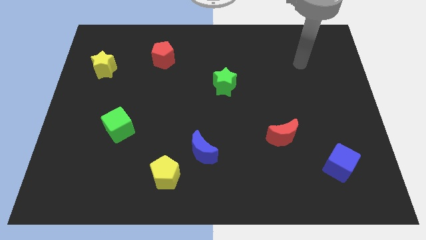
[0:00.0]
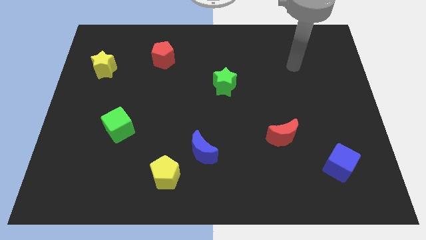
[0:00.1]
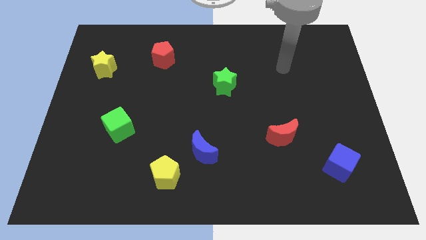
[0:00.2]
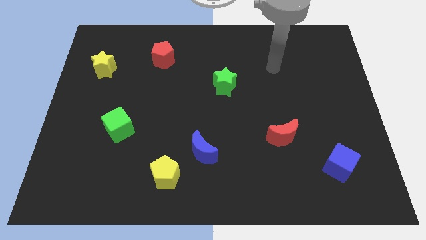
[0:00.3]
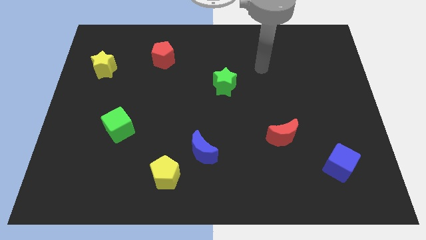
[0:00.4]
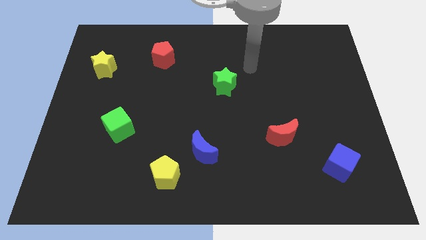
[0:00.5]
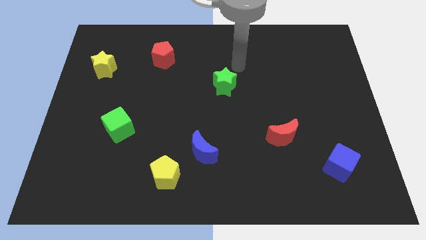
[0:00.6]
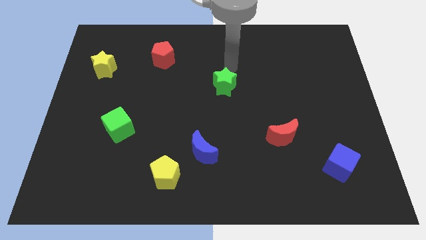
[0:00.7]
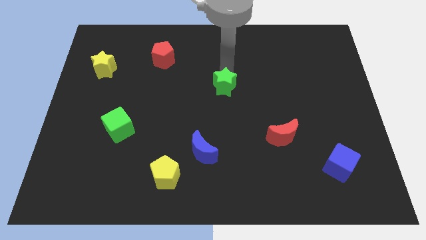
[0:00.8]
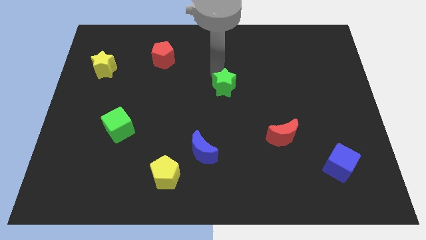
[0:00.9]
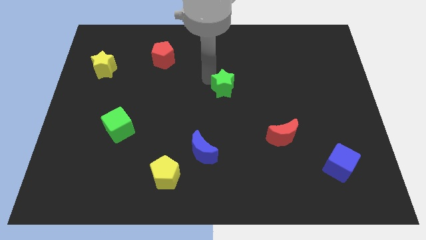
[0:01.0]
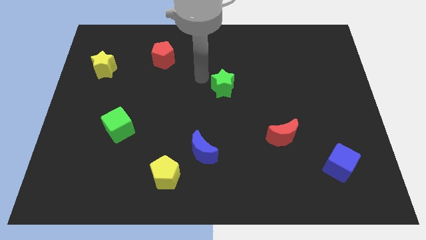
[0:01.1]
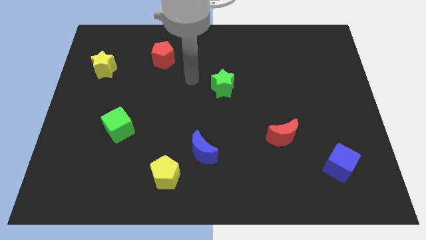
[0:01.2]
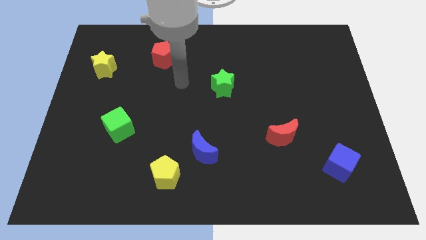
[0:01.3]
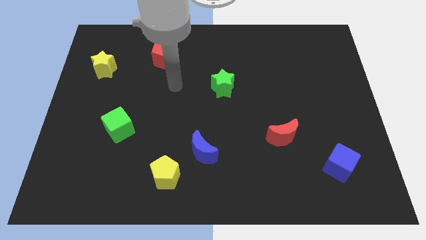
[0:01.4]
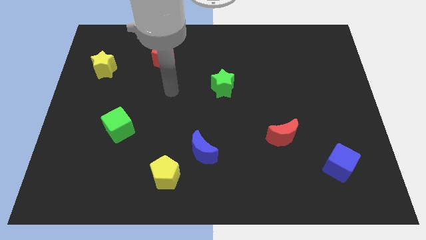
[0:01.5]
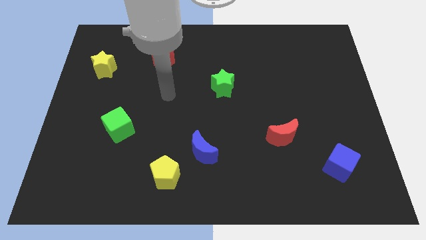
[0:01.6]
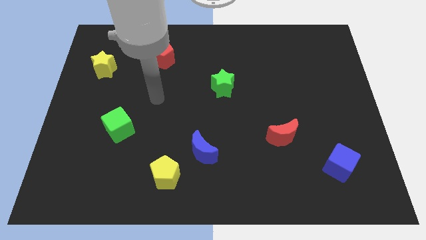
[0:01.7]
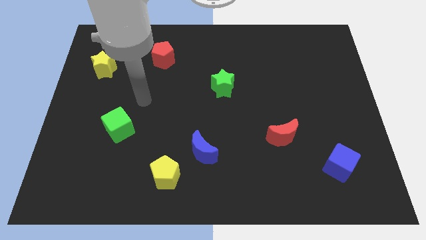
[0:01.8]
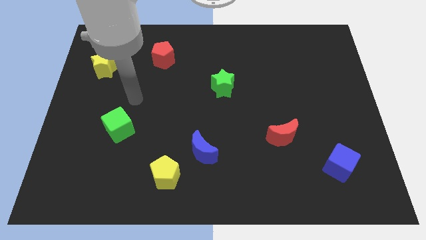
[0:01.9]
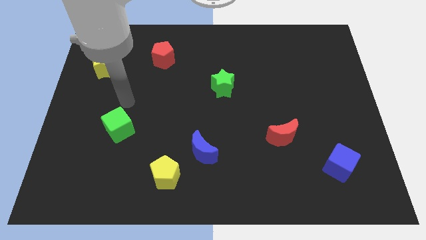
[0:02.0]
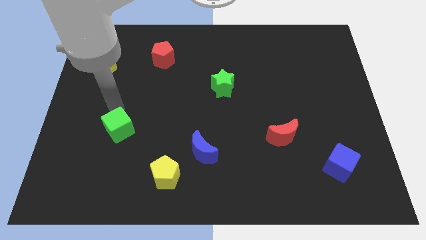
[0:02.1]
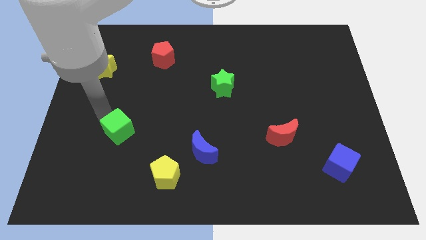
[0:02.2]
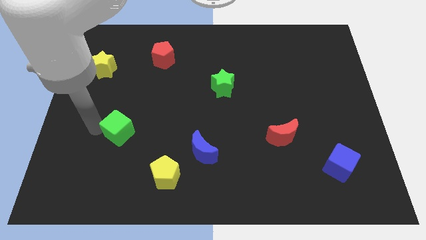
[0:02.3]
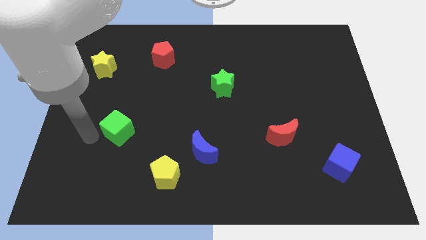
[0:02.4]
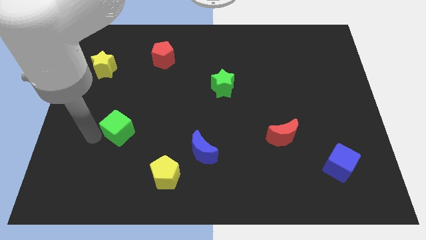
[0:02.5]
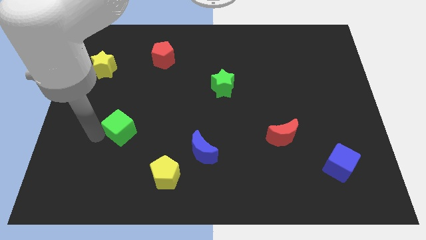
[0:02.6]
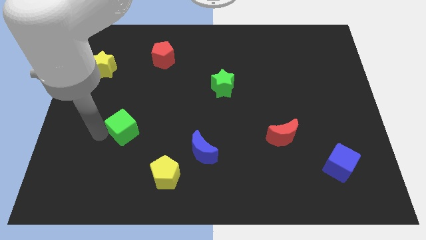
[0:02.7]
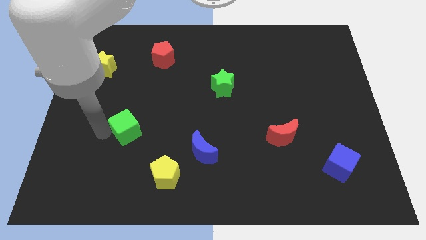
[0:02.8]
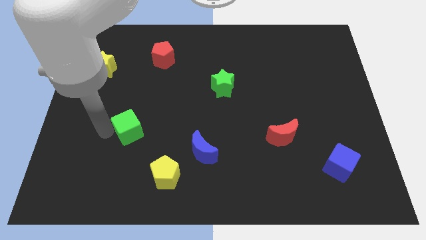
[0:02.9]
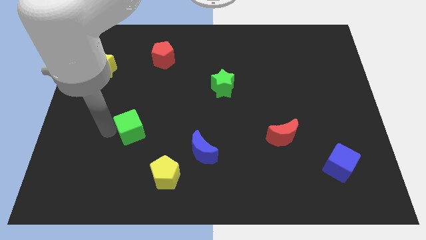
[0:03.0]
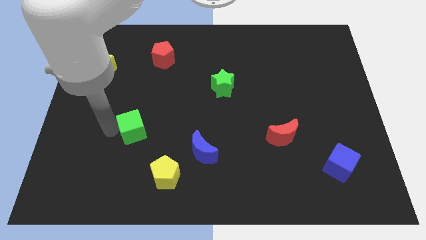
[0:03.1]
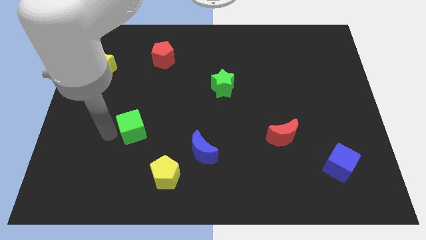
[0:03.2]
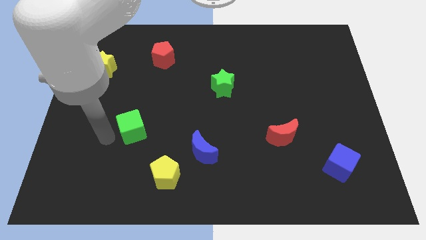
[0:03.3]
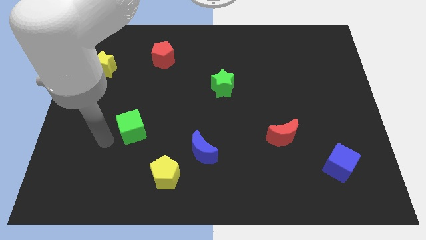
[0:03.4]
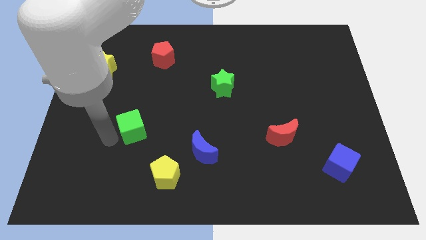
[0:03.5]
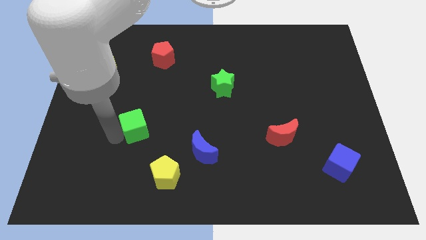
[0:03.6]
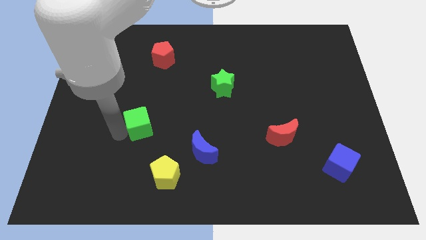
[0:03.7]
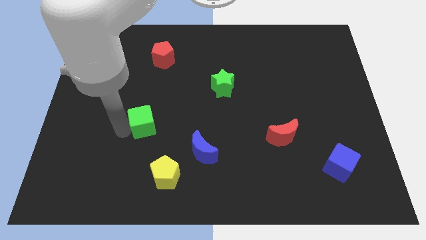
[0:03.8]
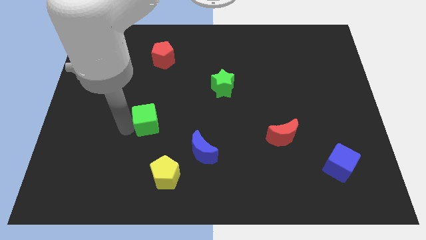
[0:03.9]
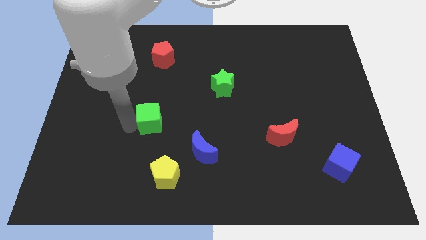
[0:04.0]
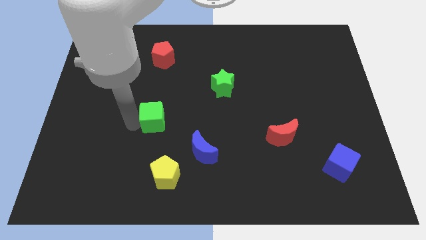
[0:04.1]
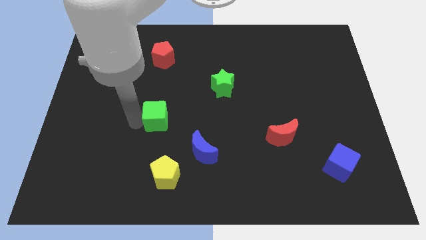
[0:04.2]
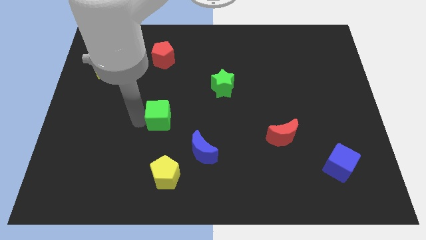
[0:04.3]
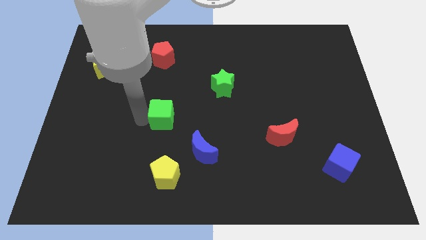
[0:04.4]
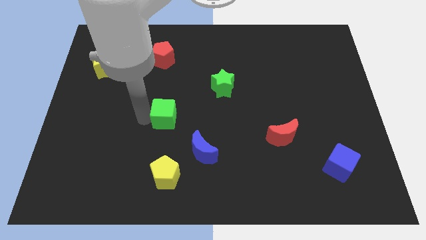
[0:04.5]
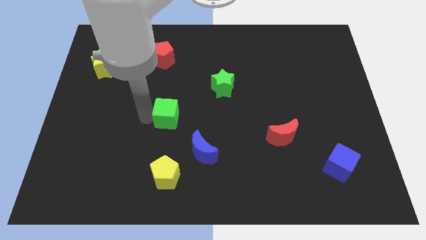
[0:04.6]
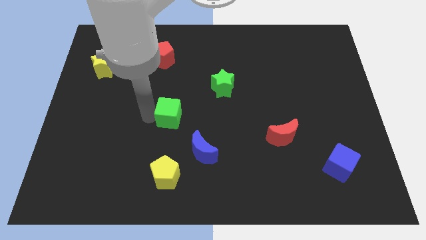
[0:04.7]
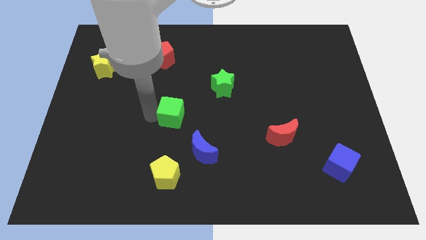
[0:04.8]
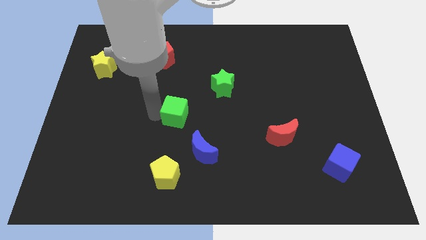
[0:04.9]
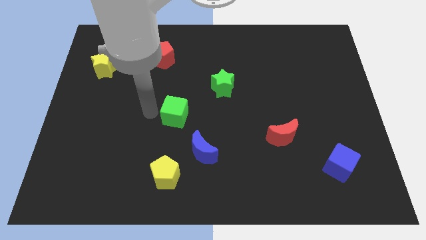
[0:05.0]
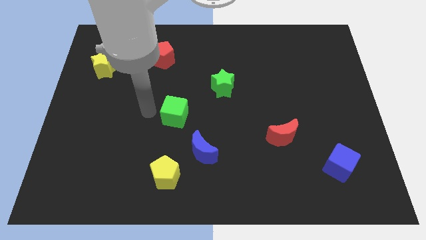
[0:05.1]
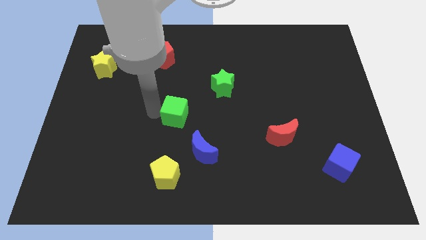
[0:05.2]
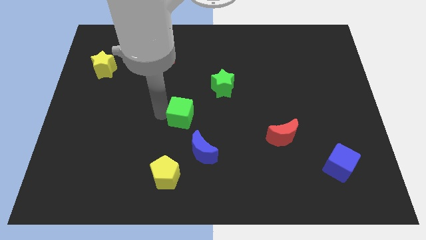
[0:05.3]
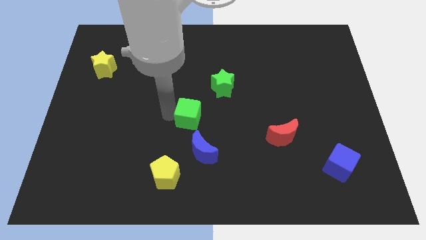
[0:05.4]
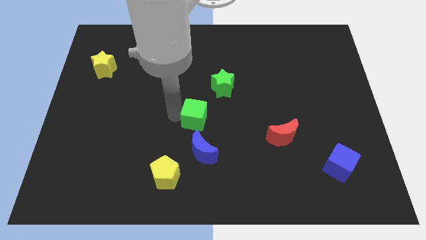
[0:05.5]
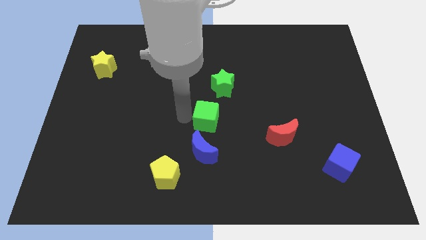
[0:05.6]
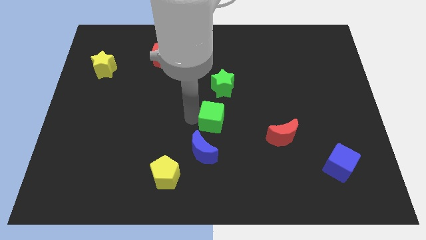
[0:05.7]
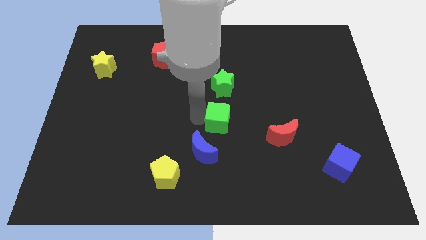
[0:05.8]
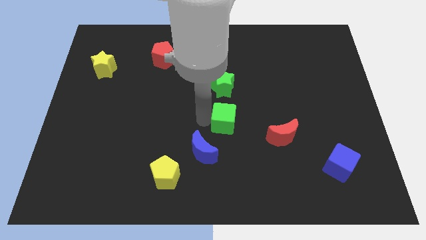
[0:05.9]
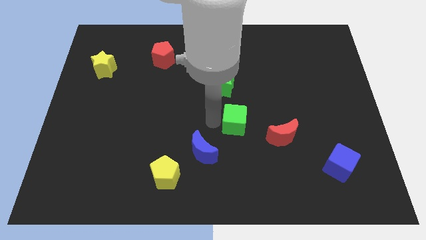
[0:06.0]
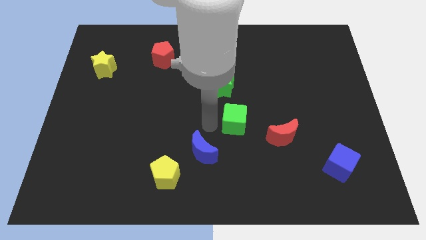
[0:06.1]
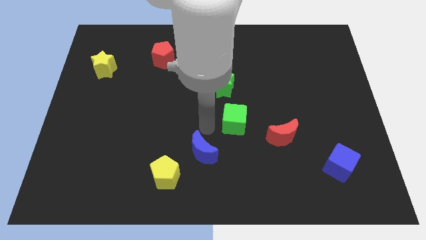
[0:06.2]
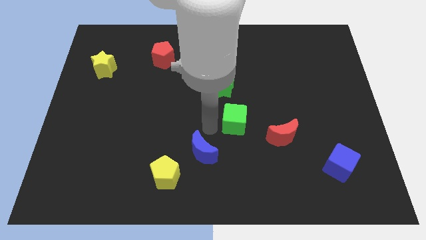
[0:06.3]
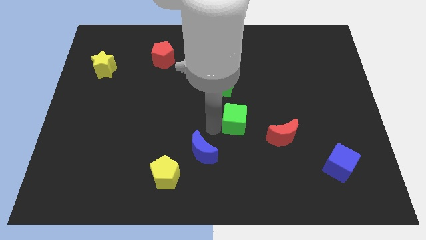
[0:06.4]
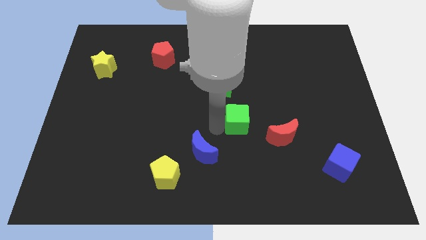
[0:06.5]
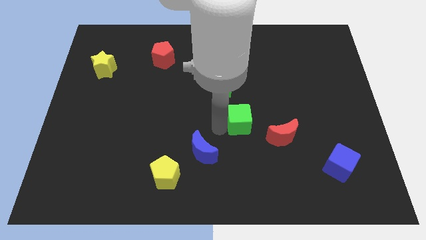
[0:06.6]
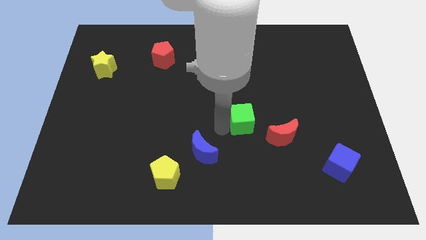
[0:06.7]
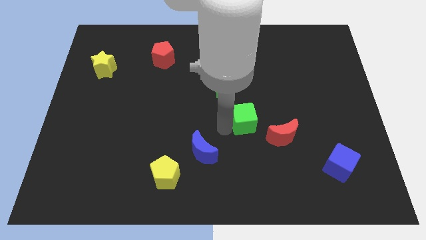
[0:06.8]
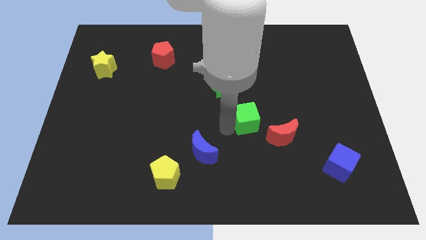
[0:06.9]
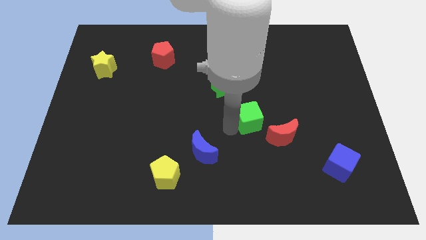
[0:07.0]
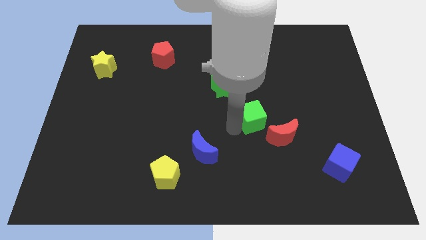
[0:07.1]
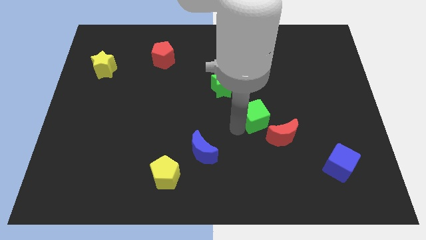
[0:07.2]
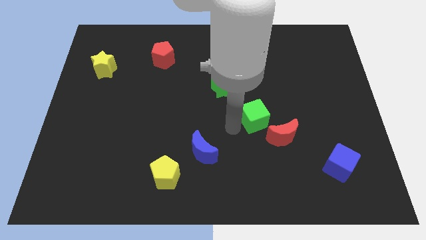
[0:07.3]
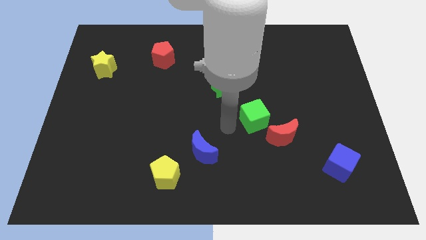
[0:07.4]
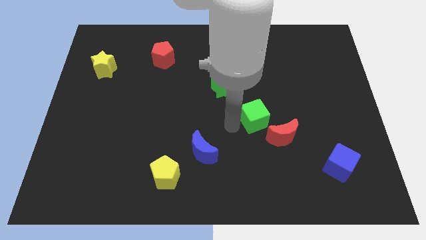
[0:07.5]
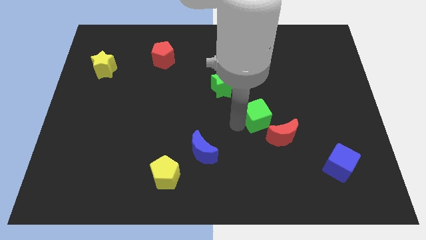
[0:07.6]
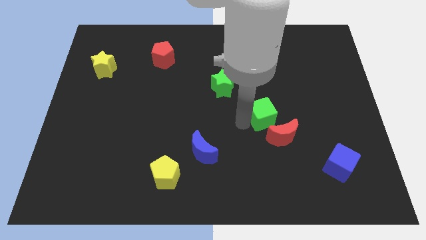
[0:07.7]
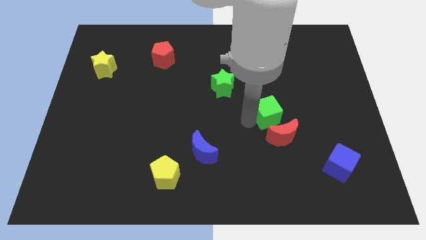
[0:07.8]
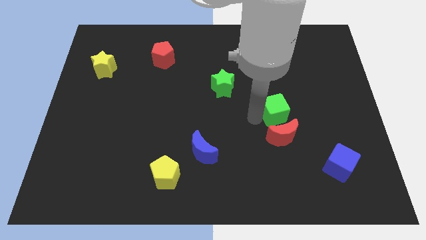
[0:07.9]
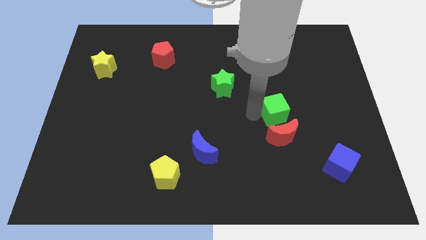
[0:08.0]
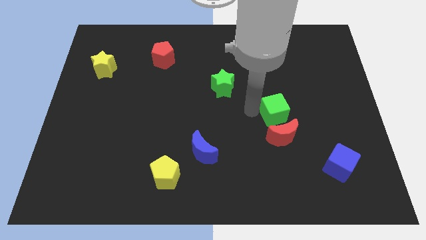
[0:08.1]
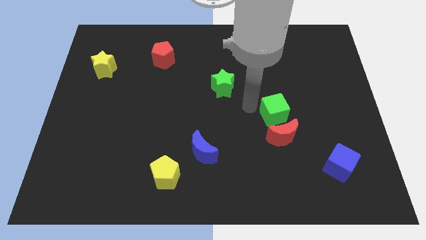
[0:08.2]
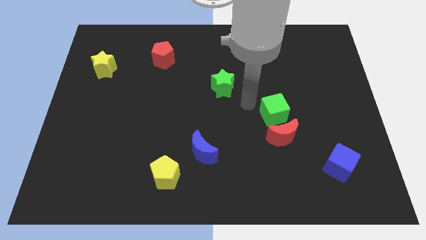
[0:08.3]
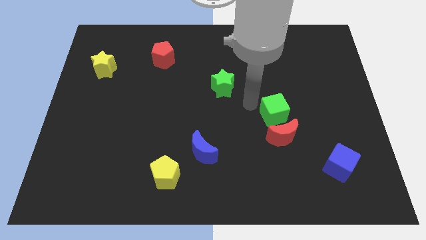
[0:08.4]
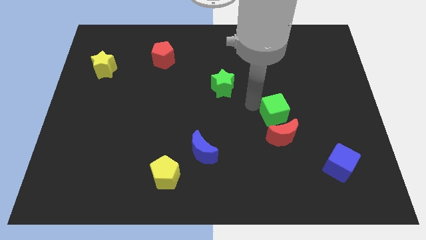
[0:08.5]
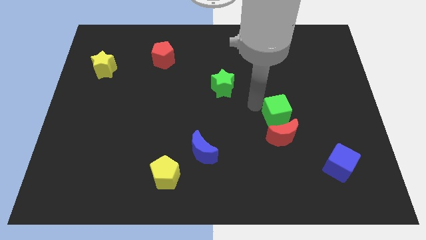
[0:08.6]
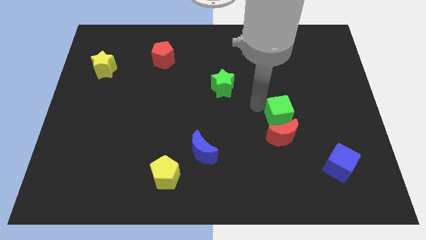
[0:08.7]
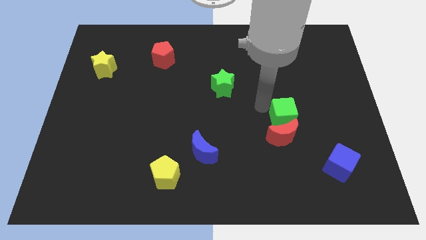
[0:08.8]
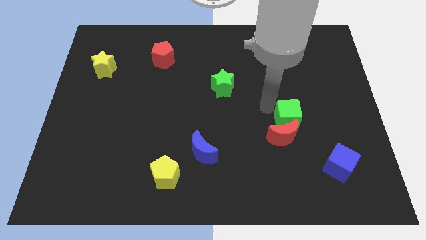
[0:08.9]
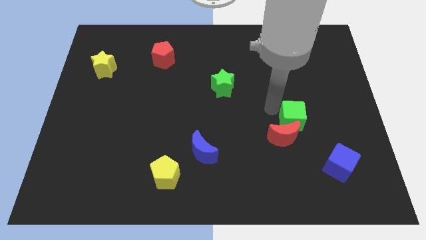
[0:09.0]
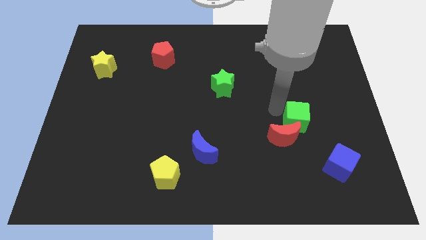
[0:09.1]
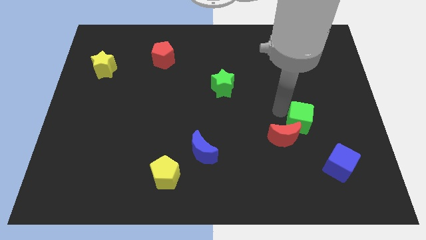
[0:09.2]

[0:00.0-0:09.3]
move the green cube to the right of the red moon
